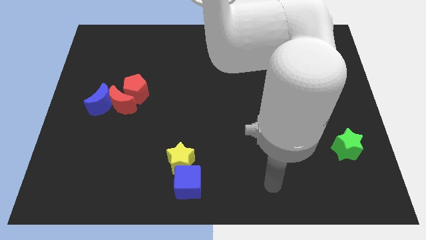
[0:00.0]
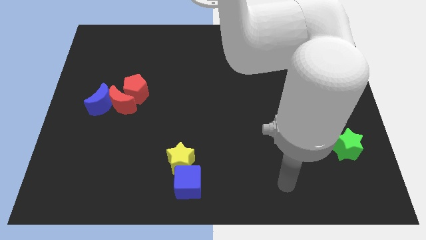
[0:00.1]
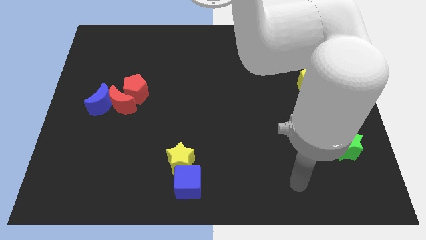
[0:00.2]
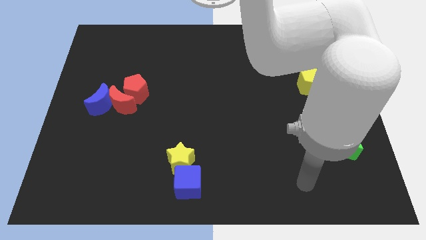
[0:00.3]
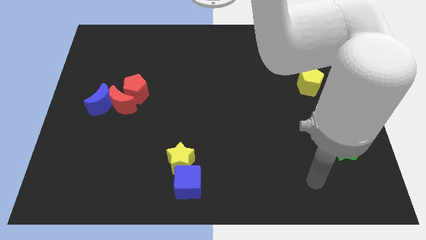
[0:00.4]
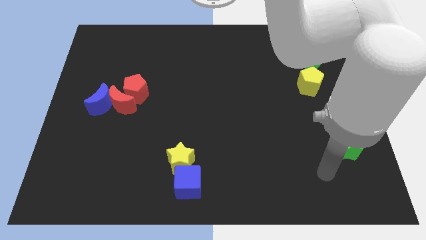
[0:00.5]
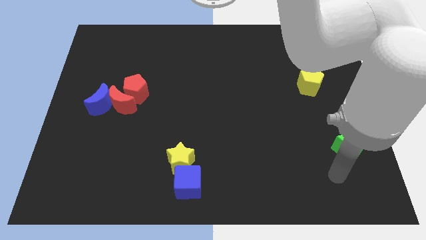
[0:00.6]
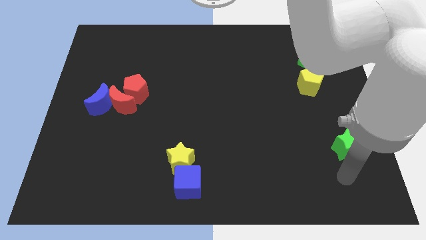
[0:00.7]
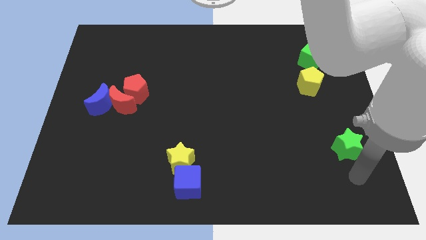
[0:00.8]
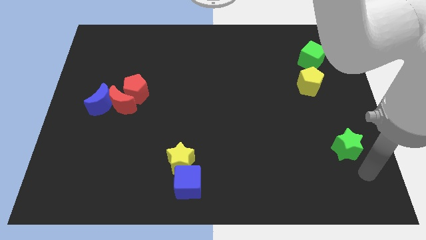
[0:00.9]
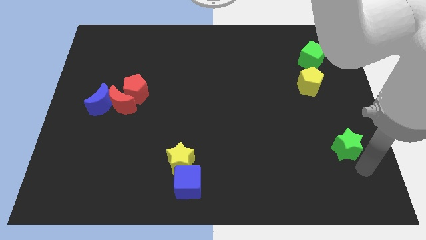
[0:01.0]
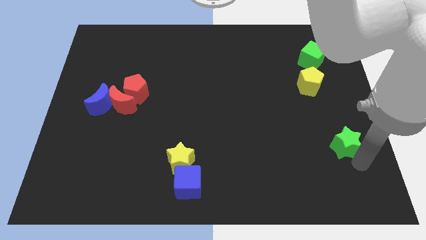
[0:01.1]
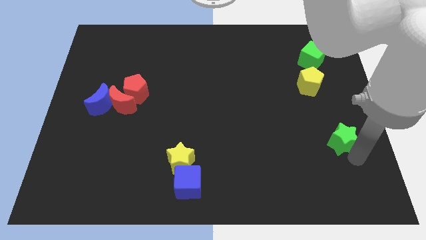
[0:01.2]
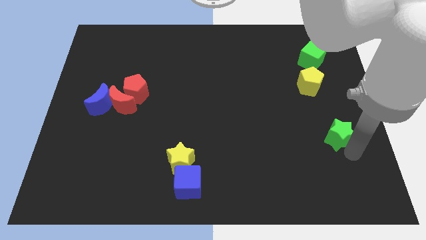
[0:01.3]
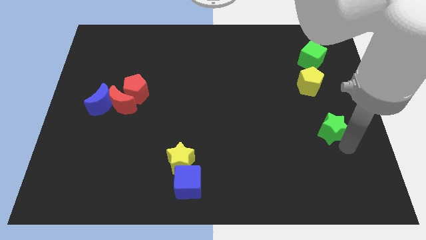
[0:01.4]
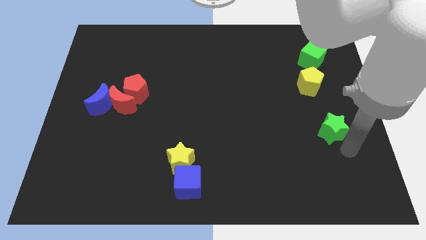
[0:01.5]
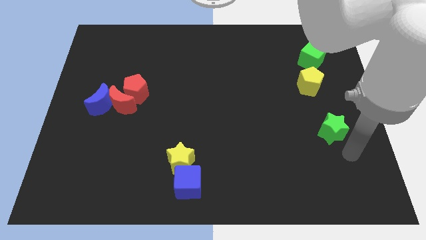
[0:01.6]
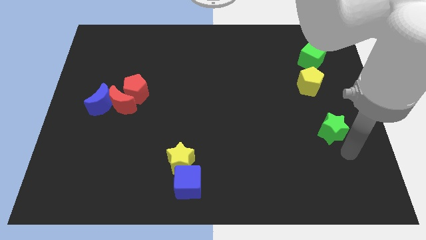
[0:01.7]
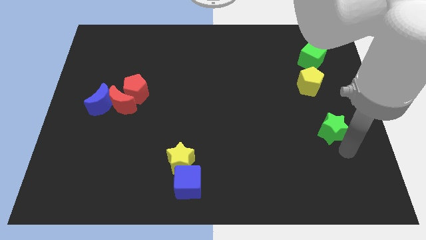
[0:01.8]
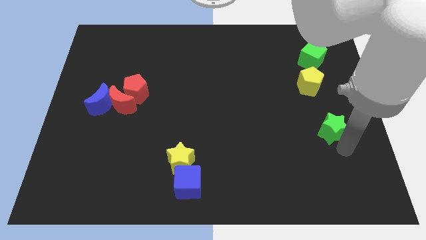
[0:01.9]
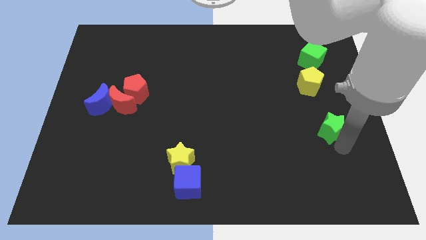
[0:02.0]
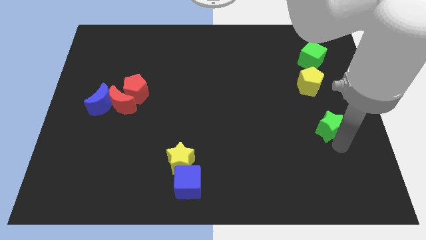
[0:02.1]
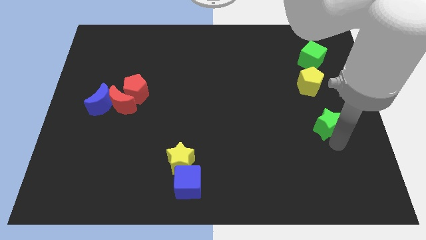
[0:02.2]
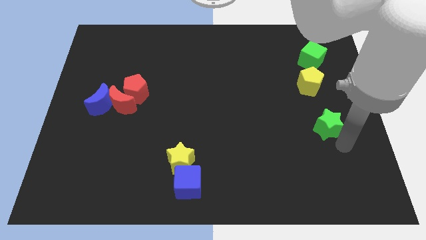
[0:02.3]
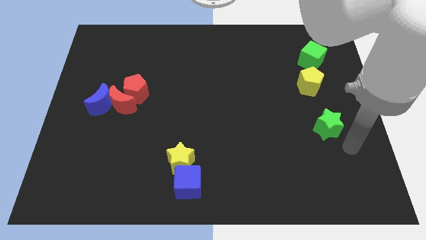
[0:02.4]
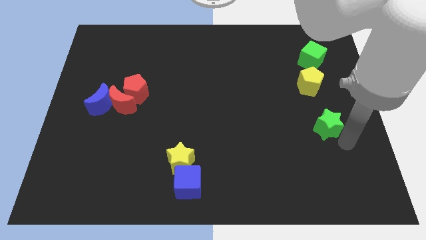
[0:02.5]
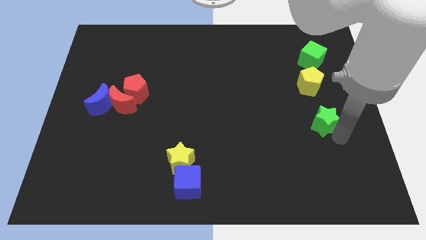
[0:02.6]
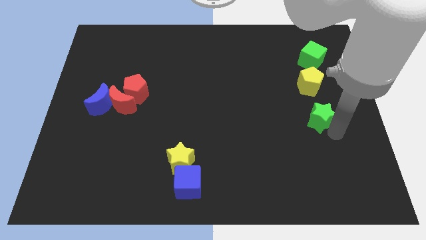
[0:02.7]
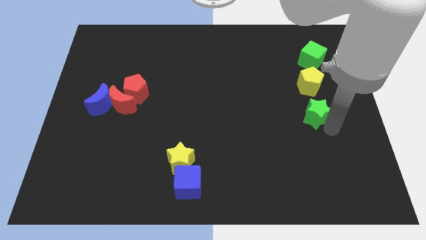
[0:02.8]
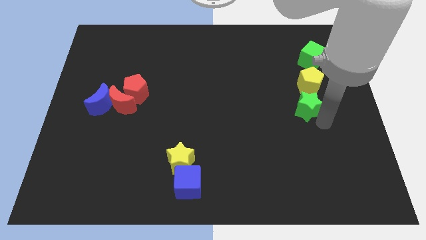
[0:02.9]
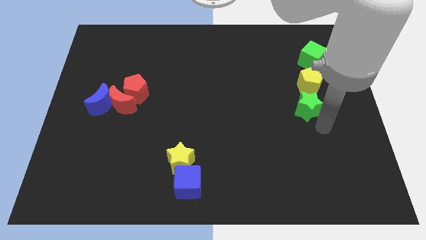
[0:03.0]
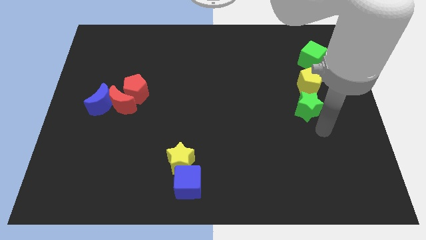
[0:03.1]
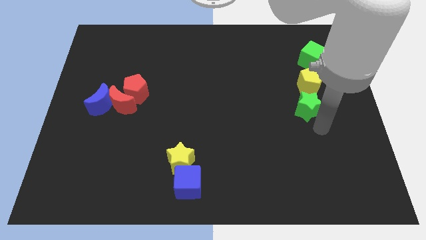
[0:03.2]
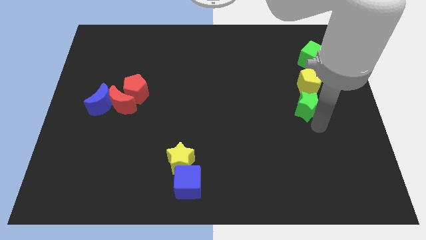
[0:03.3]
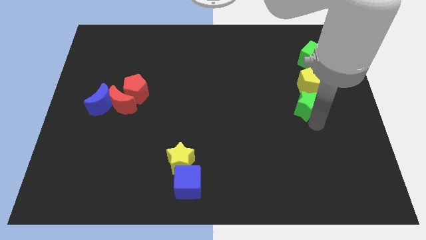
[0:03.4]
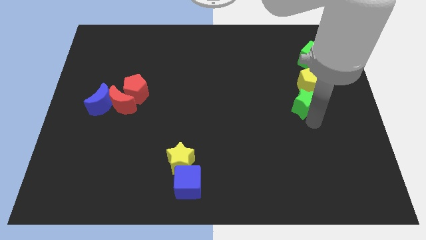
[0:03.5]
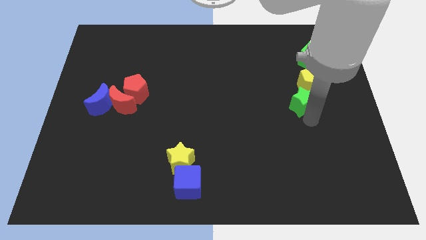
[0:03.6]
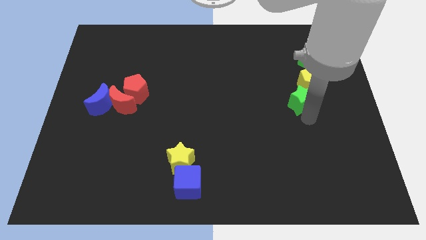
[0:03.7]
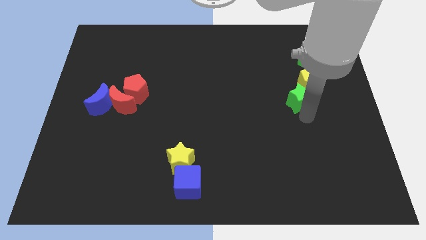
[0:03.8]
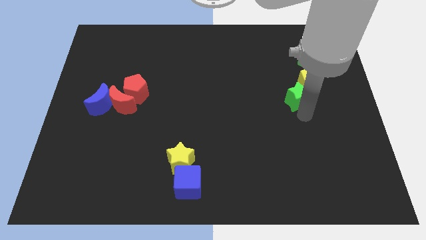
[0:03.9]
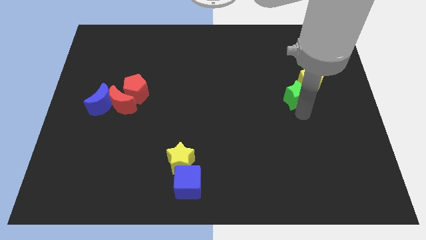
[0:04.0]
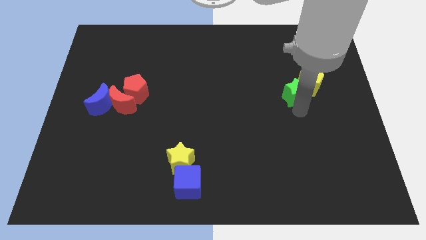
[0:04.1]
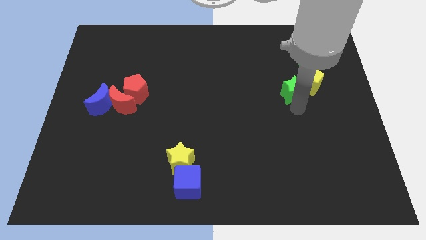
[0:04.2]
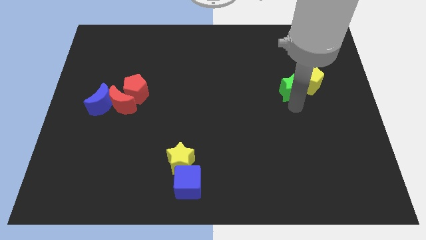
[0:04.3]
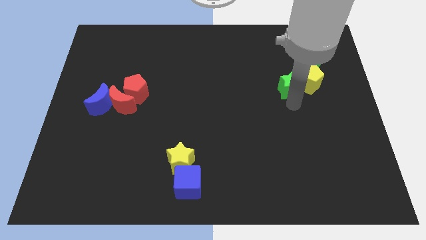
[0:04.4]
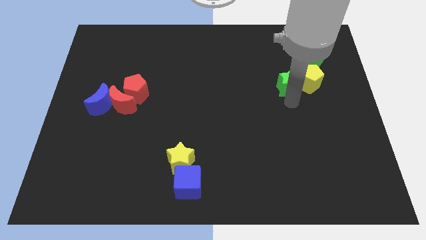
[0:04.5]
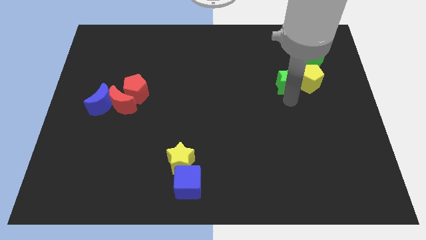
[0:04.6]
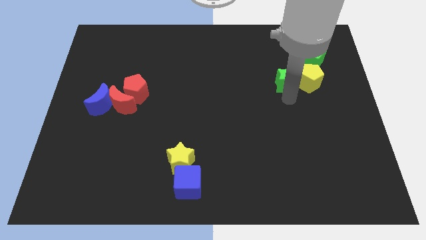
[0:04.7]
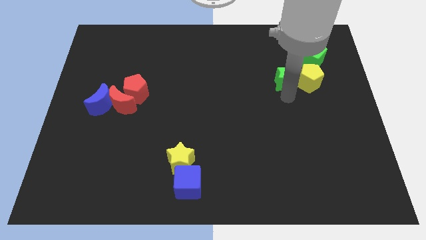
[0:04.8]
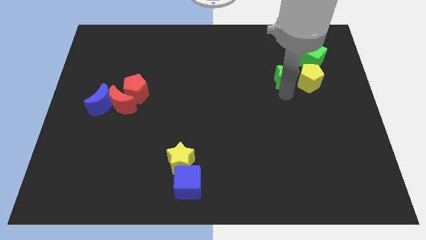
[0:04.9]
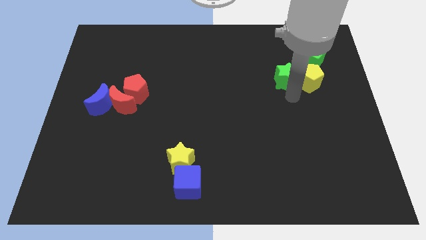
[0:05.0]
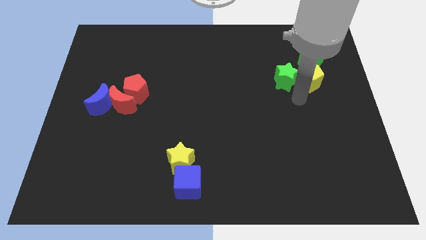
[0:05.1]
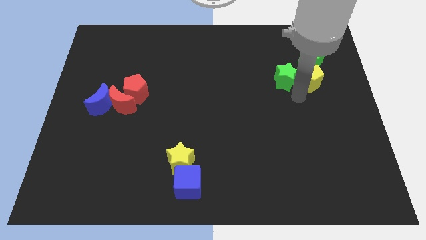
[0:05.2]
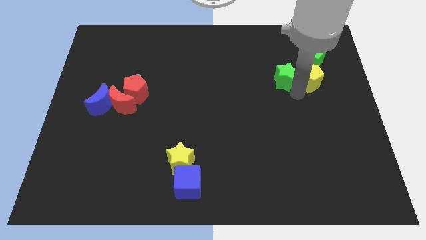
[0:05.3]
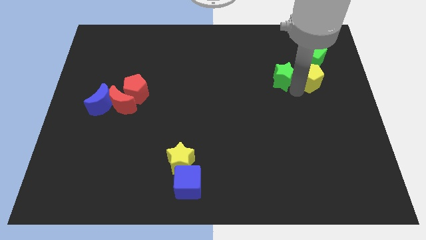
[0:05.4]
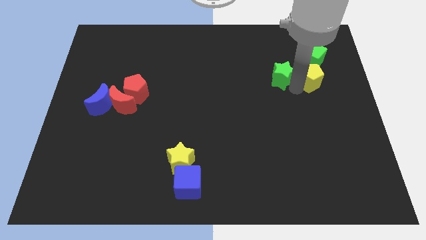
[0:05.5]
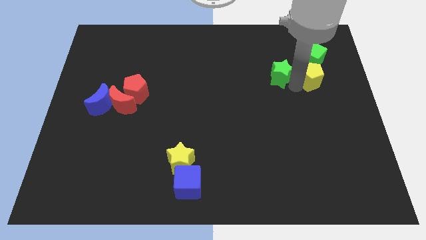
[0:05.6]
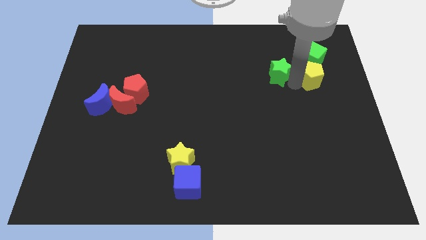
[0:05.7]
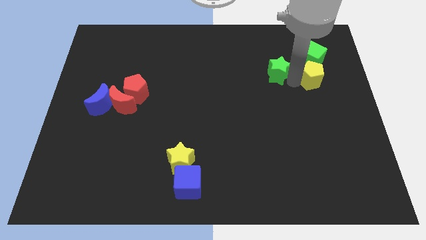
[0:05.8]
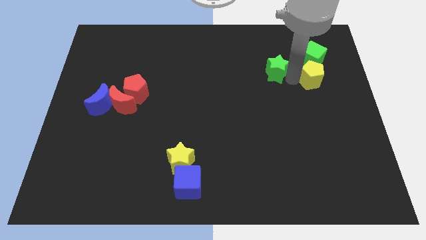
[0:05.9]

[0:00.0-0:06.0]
move the green star to the left of the green cube
